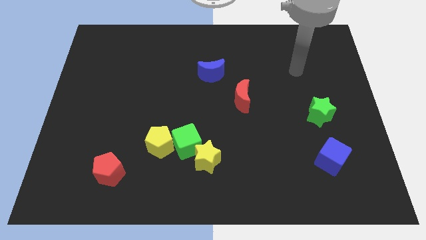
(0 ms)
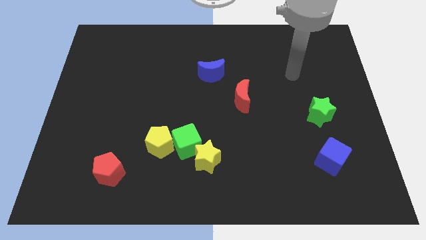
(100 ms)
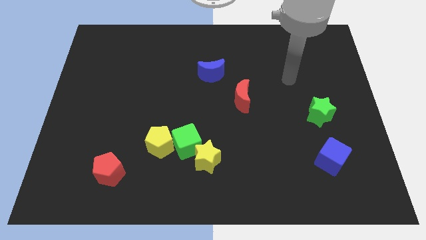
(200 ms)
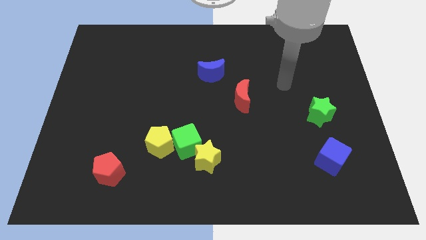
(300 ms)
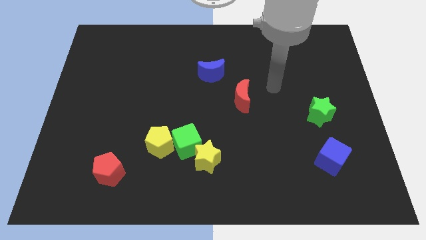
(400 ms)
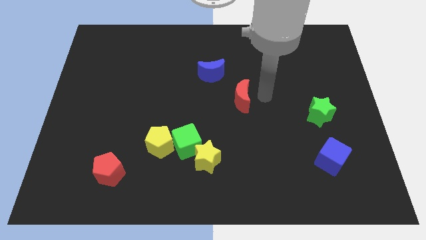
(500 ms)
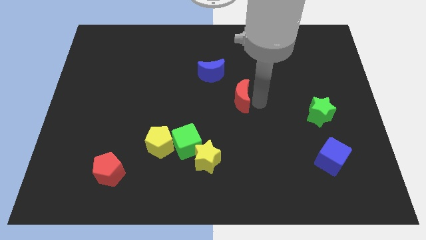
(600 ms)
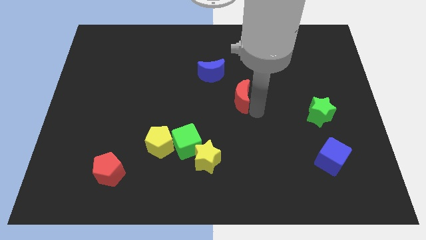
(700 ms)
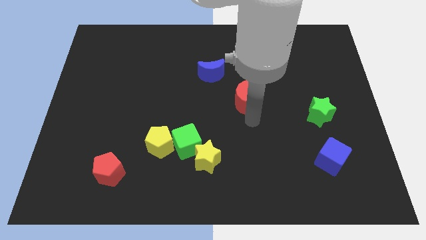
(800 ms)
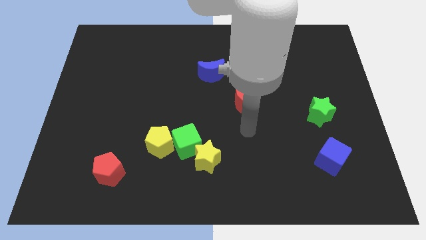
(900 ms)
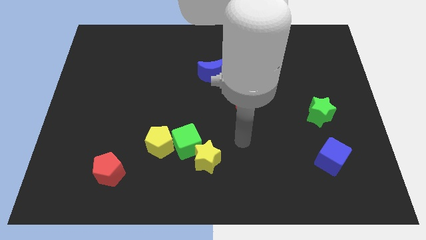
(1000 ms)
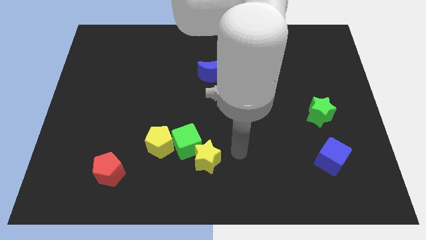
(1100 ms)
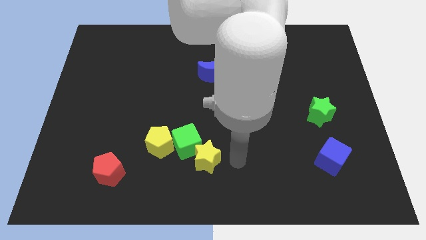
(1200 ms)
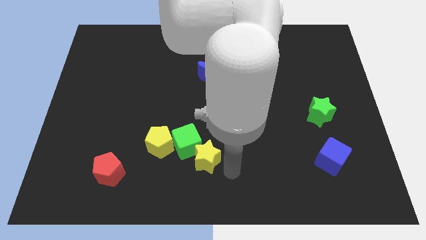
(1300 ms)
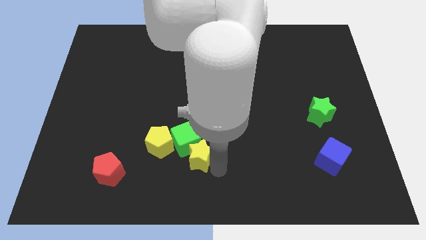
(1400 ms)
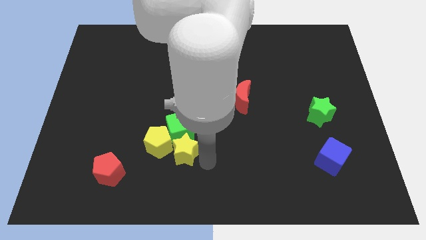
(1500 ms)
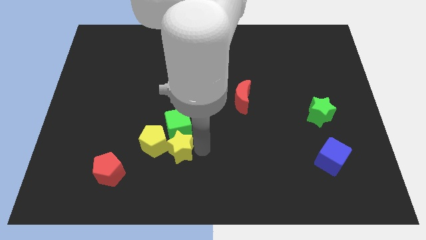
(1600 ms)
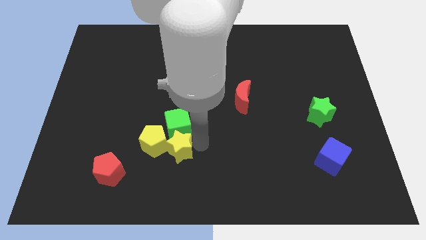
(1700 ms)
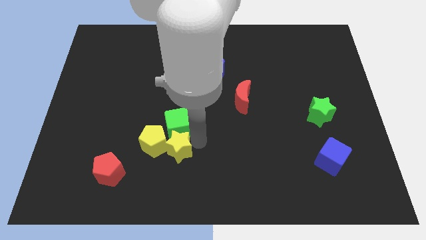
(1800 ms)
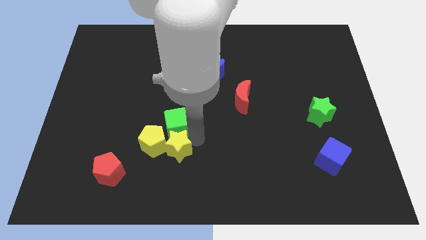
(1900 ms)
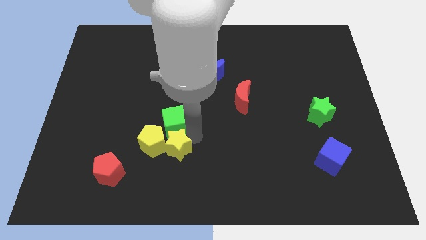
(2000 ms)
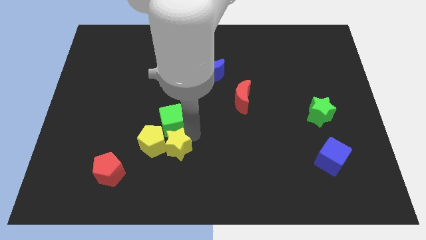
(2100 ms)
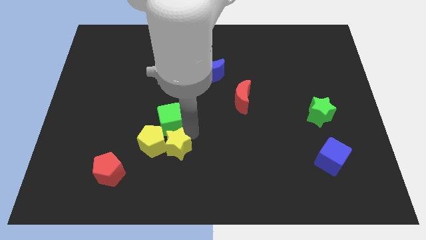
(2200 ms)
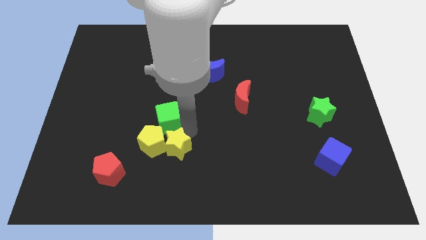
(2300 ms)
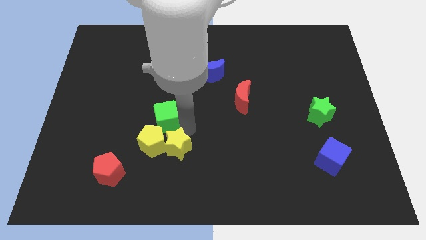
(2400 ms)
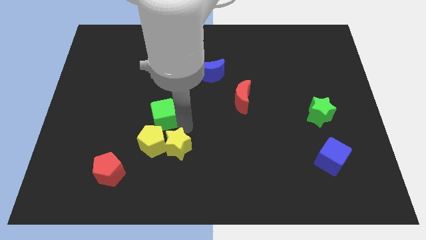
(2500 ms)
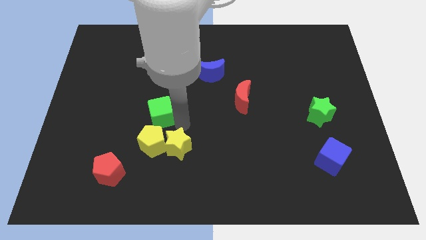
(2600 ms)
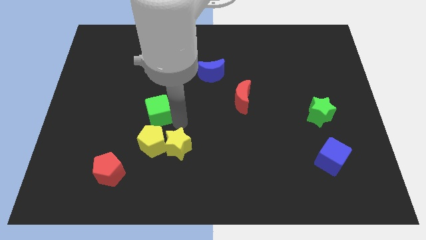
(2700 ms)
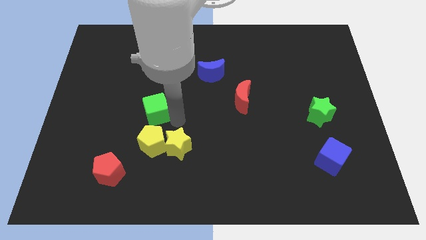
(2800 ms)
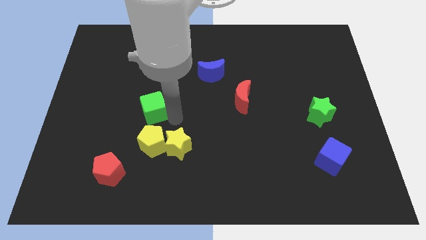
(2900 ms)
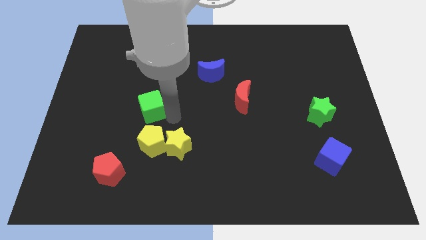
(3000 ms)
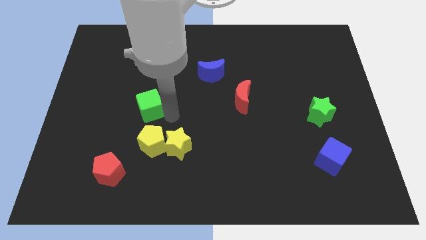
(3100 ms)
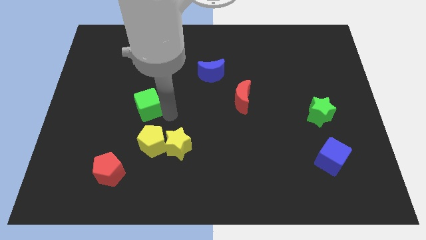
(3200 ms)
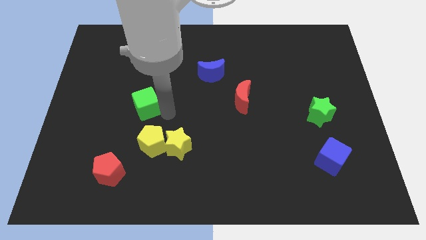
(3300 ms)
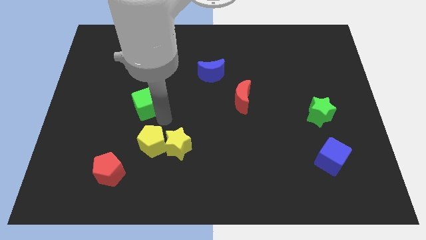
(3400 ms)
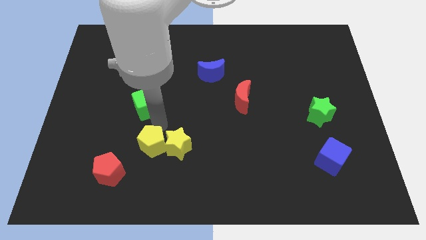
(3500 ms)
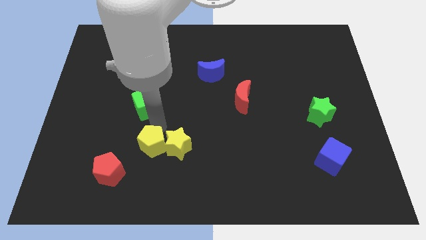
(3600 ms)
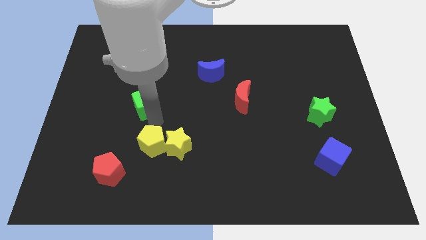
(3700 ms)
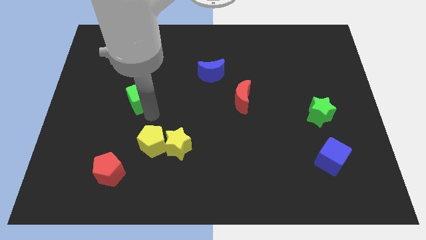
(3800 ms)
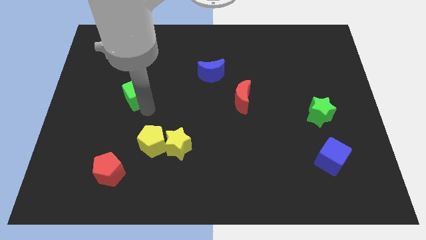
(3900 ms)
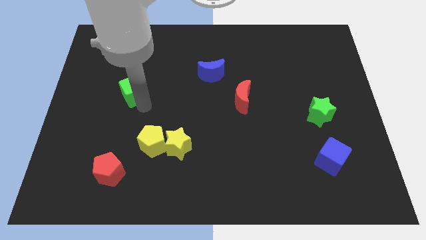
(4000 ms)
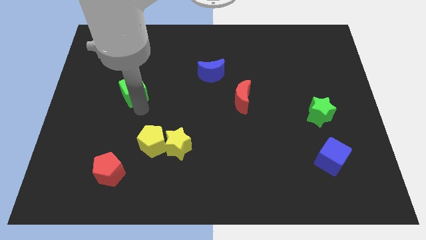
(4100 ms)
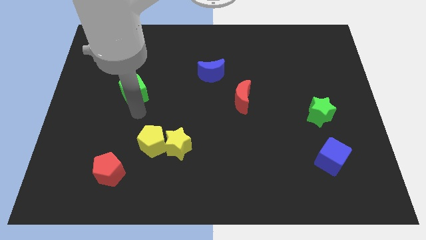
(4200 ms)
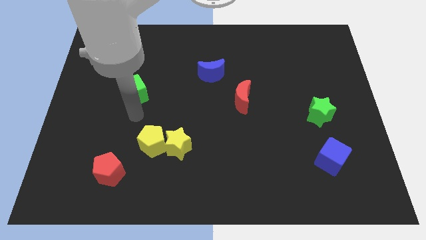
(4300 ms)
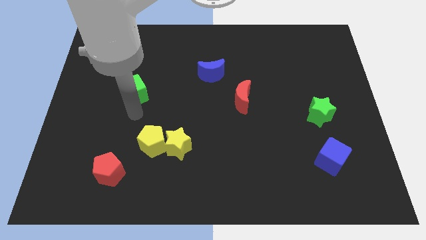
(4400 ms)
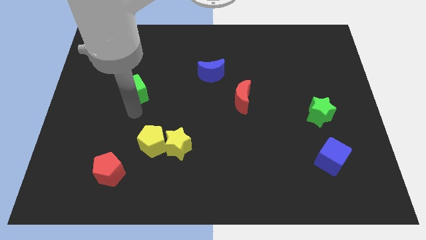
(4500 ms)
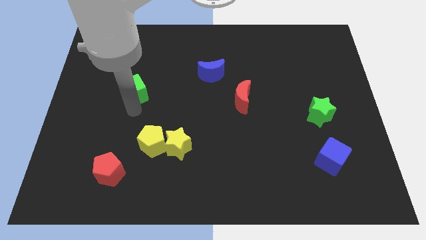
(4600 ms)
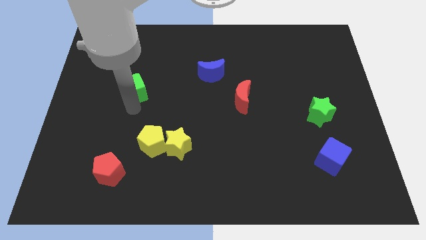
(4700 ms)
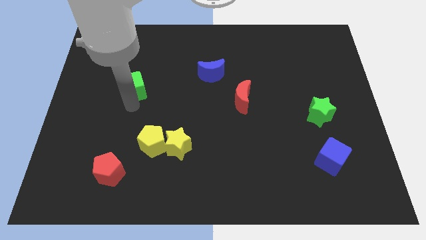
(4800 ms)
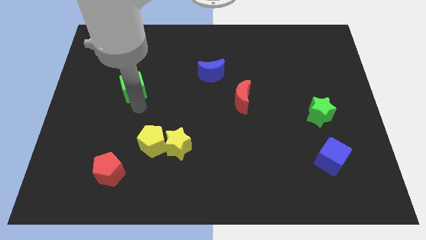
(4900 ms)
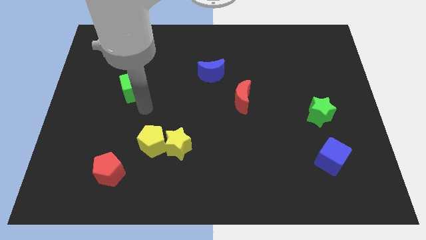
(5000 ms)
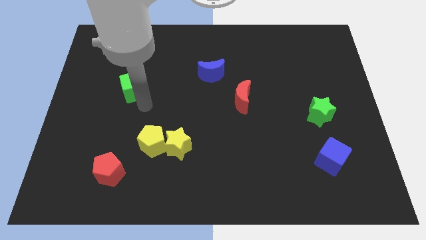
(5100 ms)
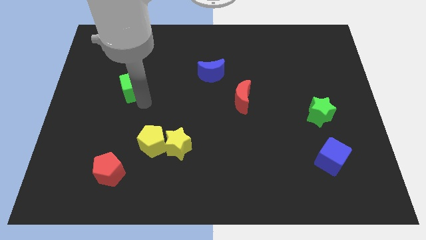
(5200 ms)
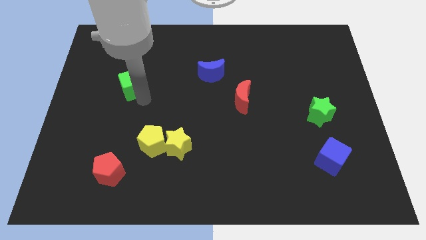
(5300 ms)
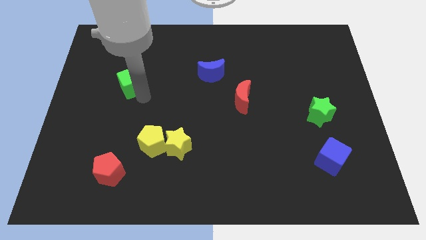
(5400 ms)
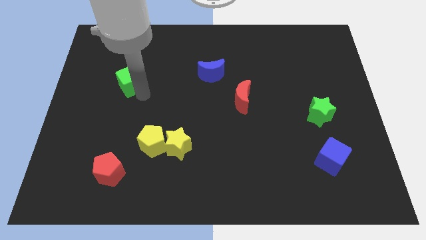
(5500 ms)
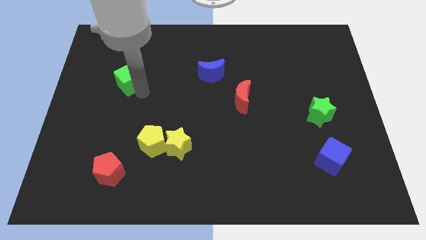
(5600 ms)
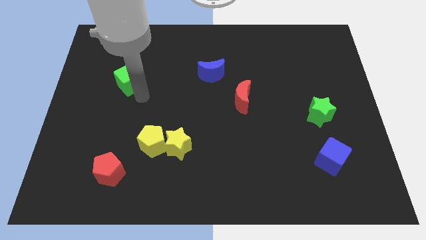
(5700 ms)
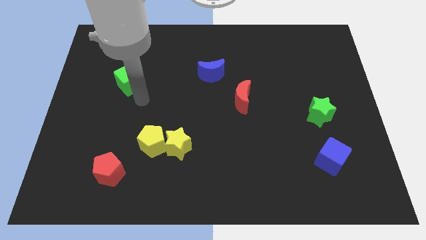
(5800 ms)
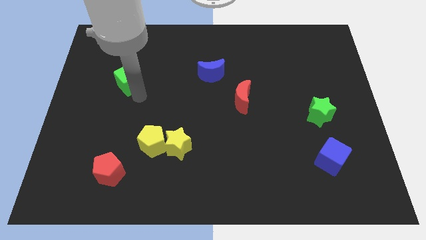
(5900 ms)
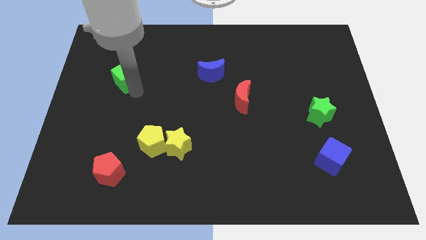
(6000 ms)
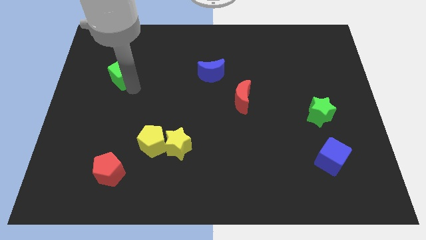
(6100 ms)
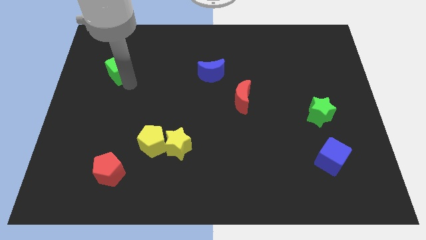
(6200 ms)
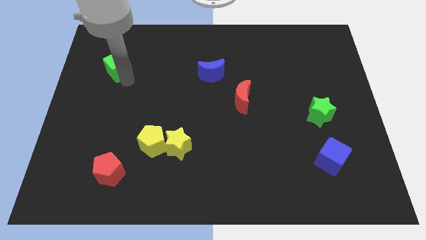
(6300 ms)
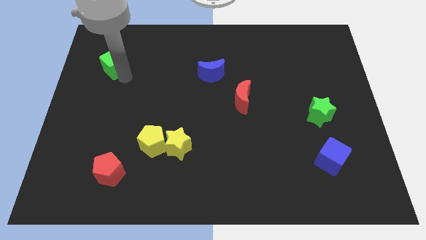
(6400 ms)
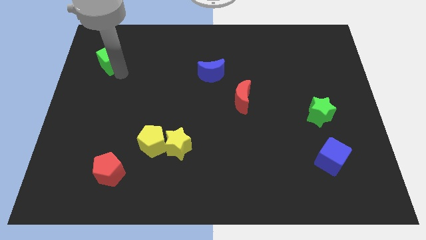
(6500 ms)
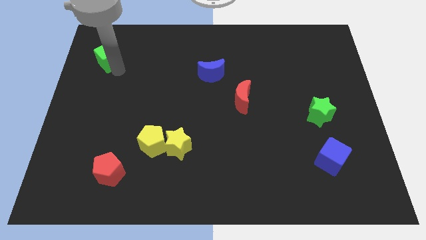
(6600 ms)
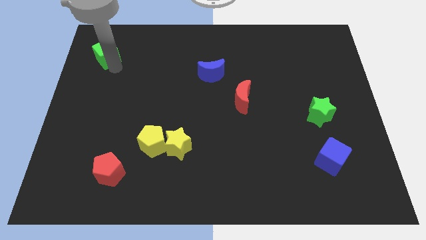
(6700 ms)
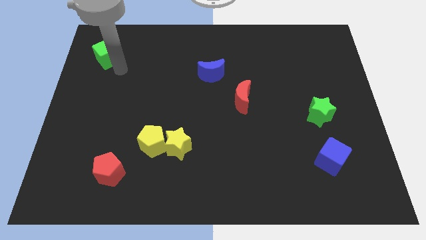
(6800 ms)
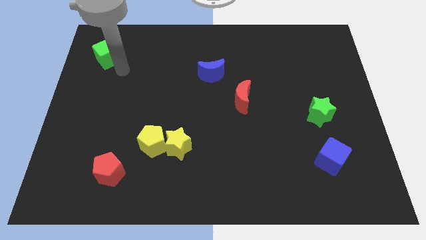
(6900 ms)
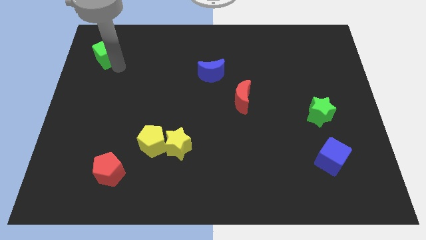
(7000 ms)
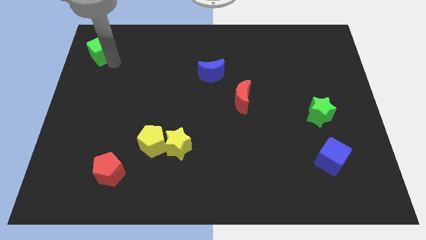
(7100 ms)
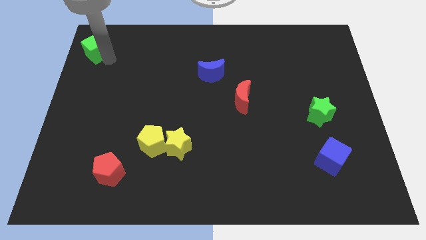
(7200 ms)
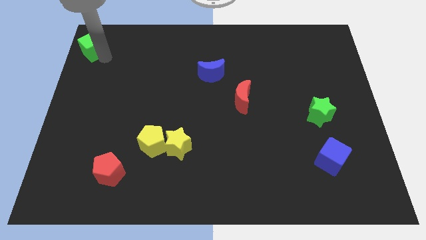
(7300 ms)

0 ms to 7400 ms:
slide the green cube to the upper left corner
